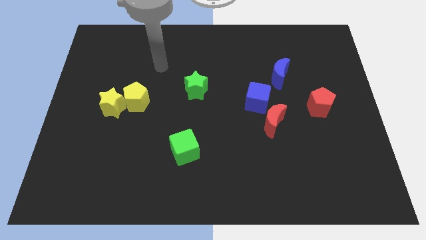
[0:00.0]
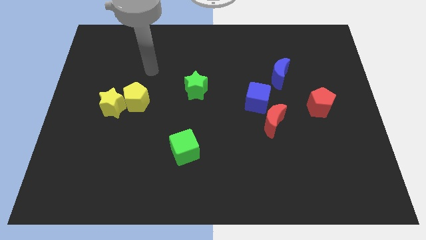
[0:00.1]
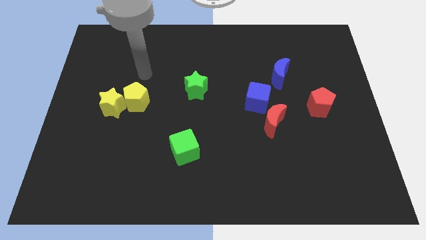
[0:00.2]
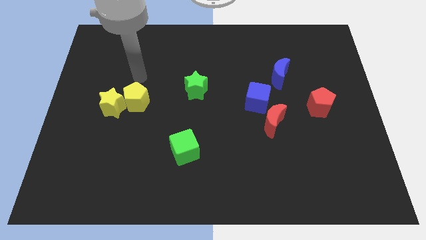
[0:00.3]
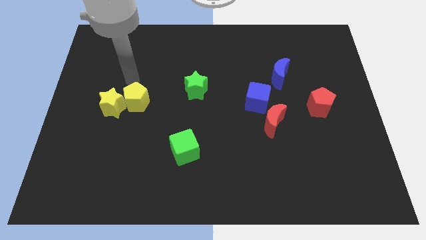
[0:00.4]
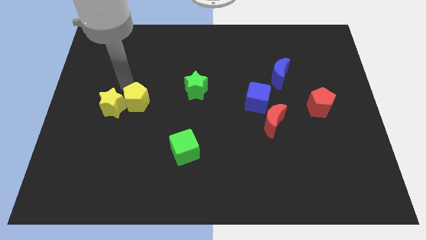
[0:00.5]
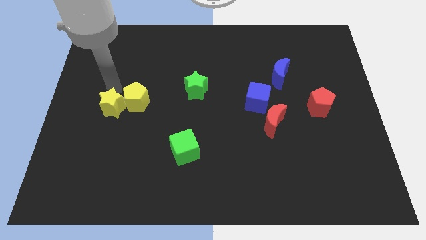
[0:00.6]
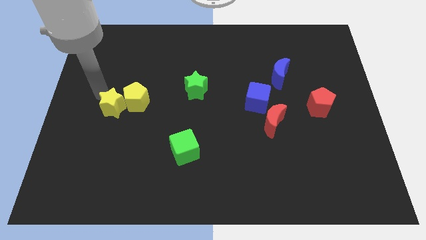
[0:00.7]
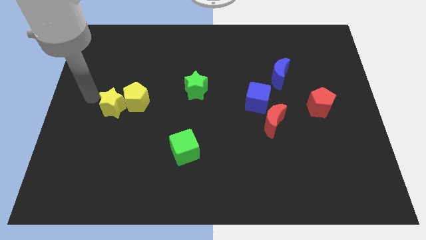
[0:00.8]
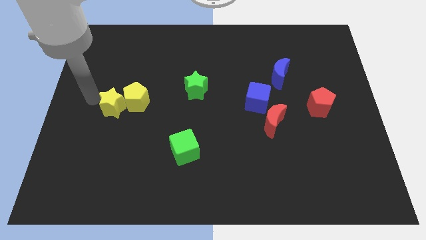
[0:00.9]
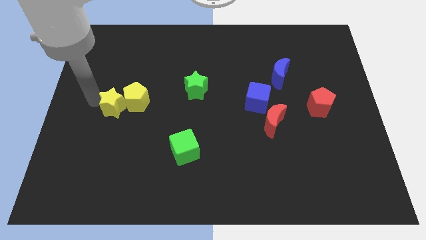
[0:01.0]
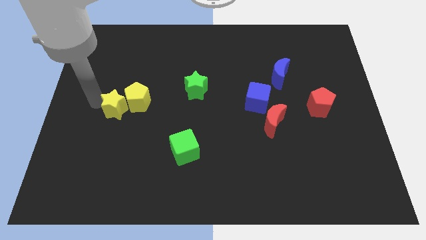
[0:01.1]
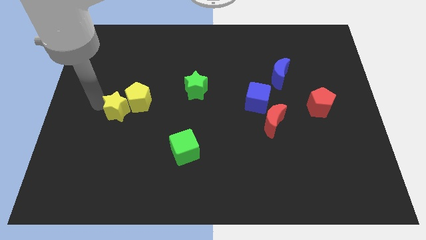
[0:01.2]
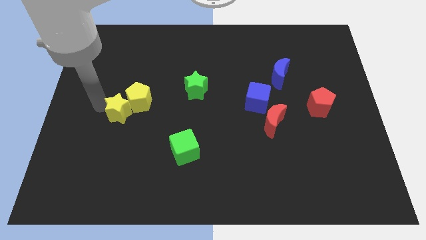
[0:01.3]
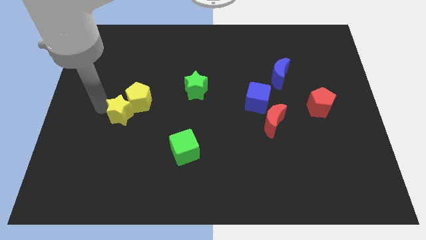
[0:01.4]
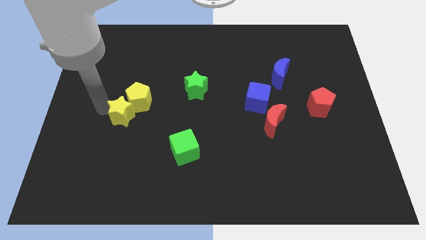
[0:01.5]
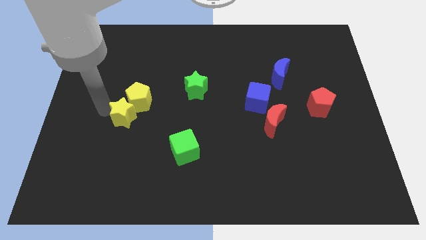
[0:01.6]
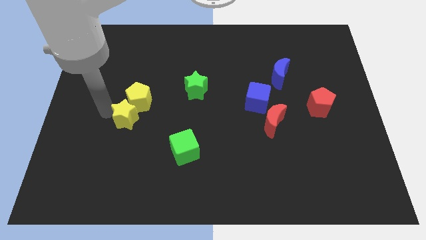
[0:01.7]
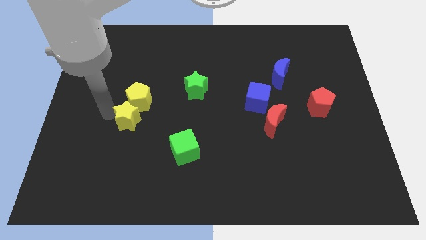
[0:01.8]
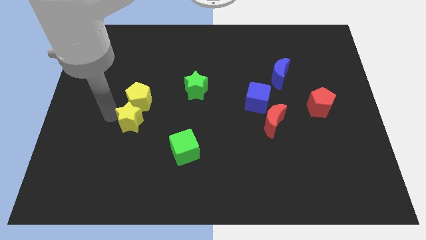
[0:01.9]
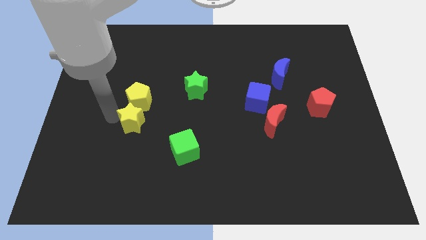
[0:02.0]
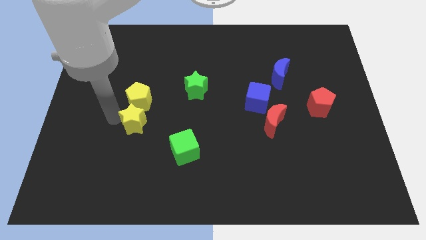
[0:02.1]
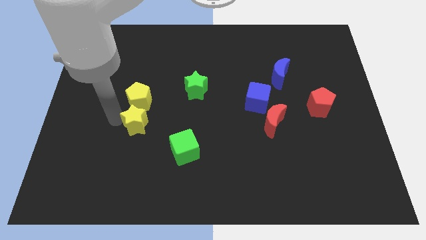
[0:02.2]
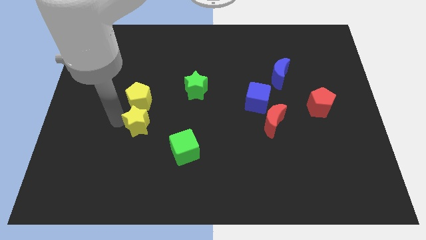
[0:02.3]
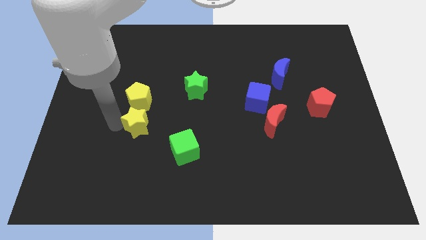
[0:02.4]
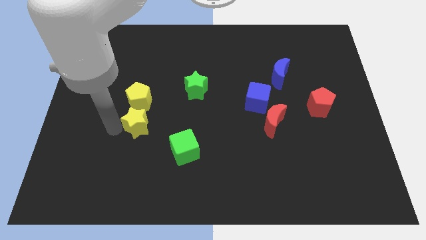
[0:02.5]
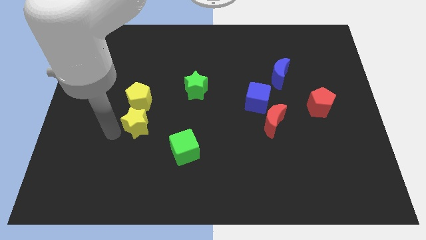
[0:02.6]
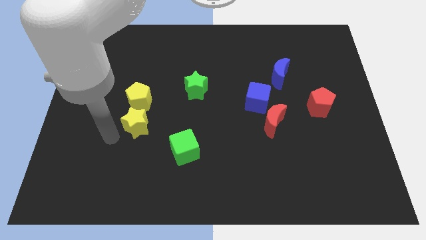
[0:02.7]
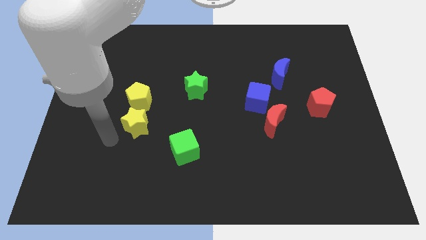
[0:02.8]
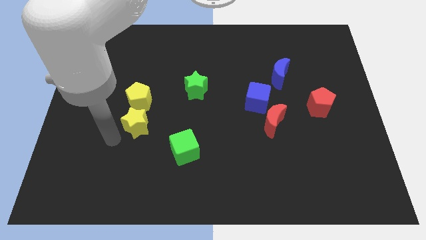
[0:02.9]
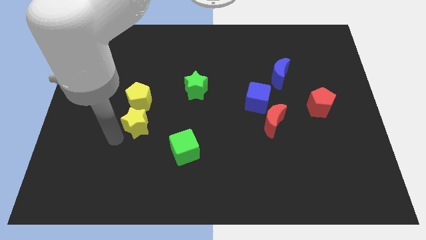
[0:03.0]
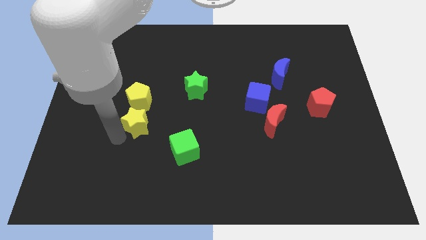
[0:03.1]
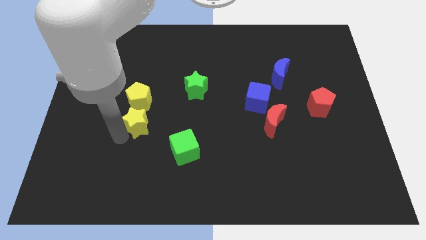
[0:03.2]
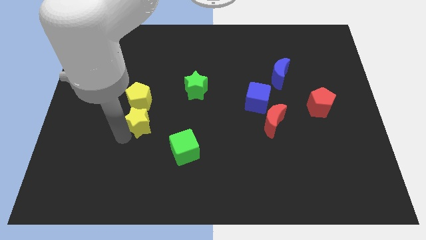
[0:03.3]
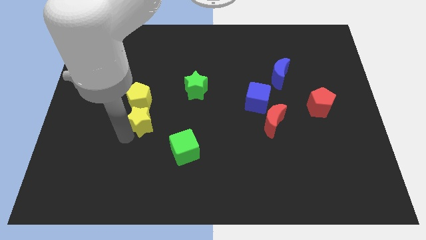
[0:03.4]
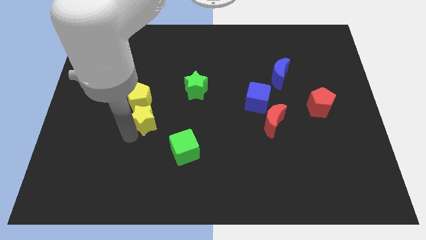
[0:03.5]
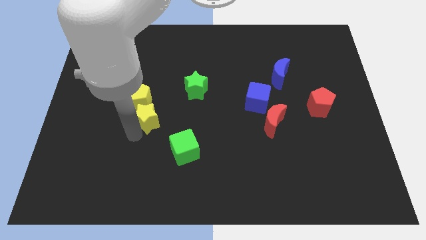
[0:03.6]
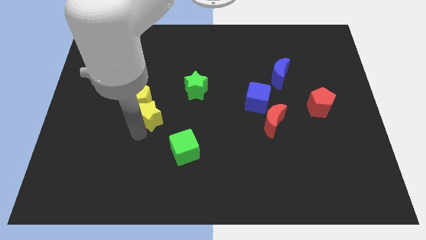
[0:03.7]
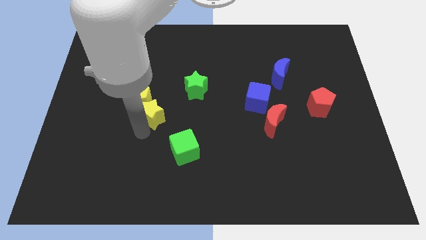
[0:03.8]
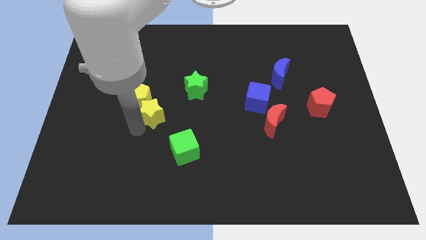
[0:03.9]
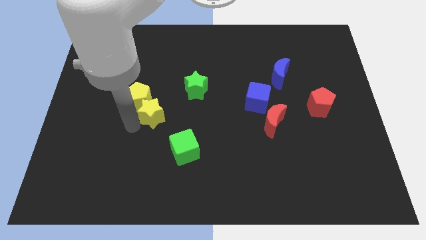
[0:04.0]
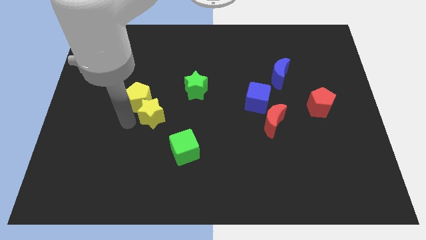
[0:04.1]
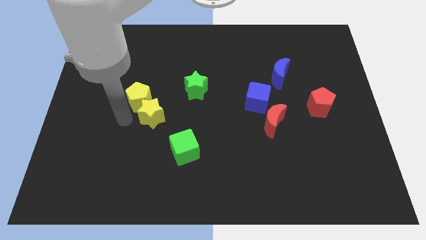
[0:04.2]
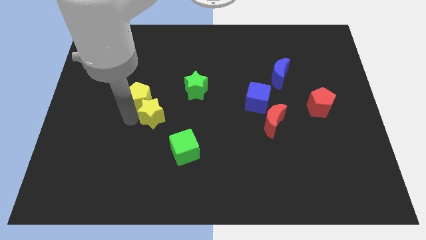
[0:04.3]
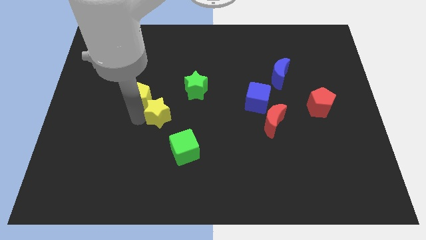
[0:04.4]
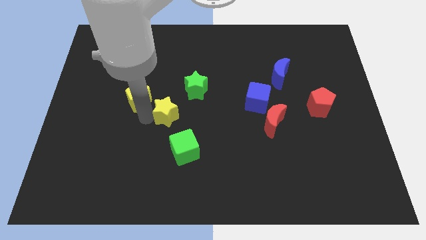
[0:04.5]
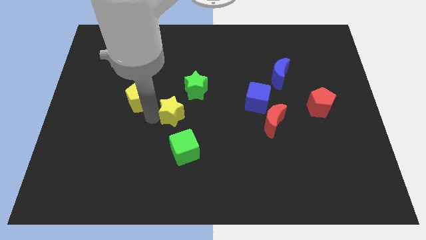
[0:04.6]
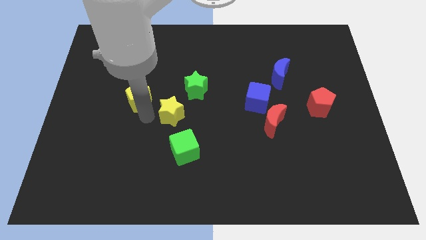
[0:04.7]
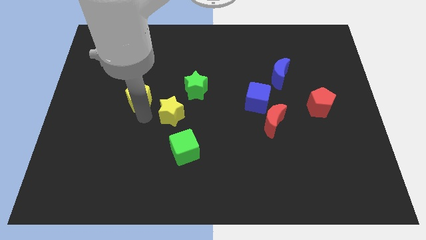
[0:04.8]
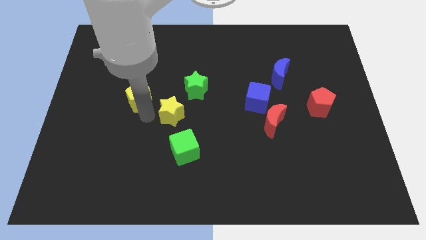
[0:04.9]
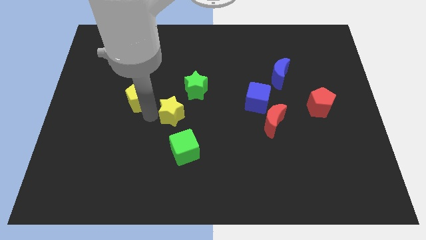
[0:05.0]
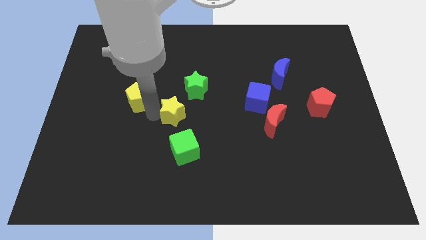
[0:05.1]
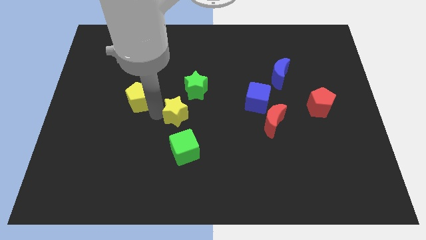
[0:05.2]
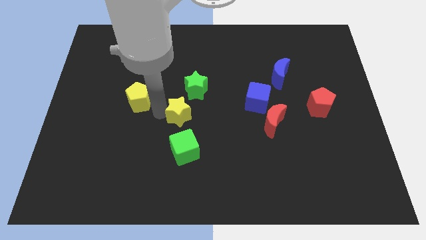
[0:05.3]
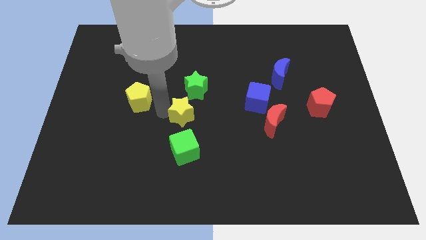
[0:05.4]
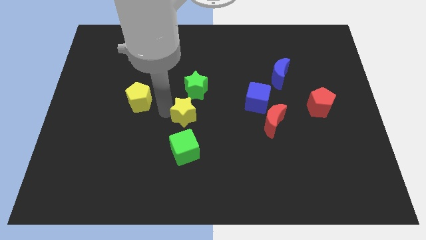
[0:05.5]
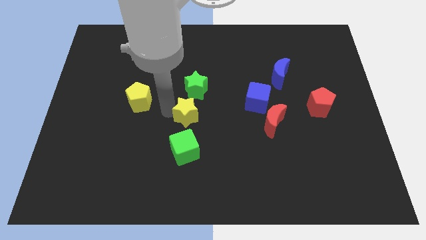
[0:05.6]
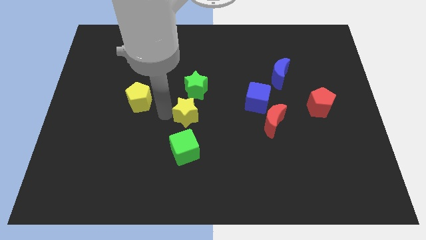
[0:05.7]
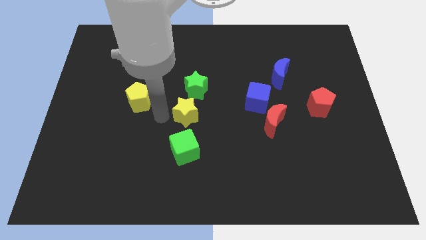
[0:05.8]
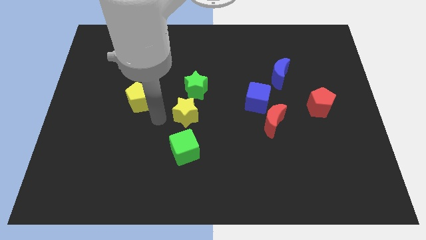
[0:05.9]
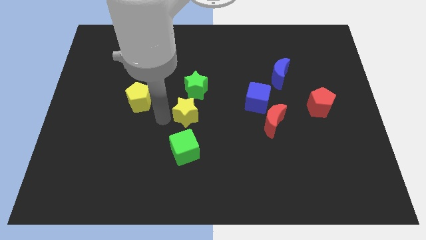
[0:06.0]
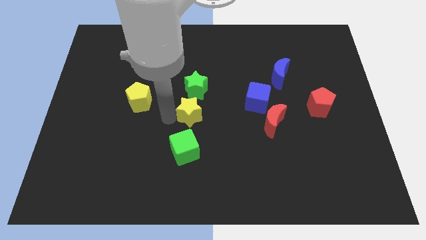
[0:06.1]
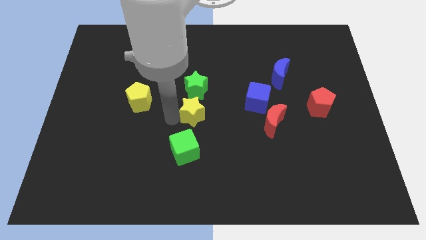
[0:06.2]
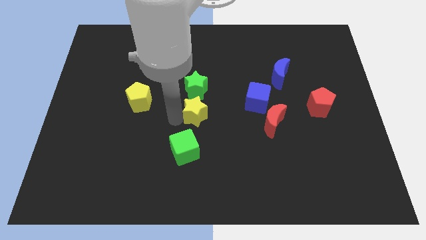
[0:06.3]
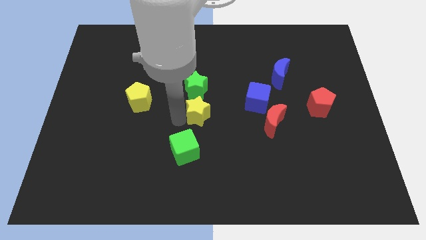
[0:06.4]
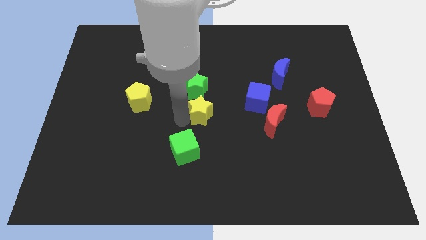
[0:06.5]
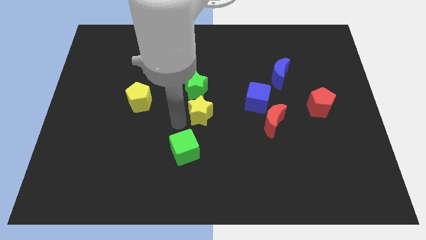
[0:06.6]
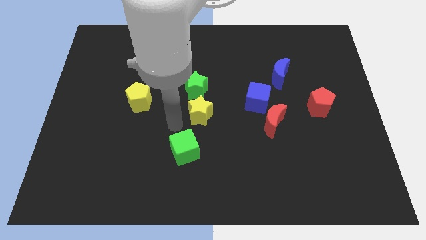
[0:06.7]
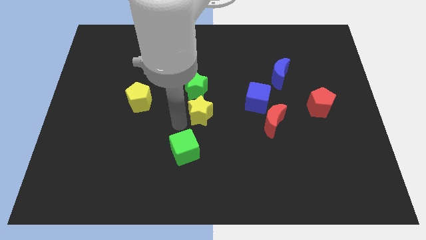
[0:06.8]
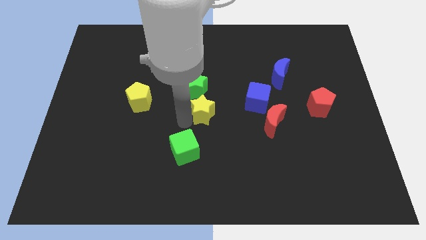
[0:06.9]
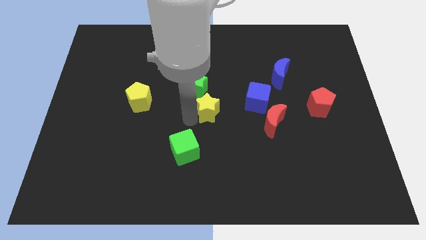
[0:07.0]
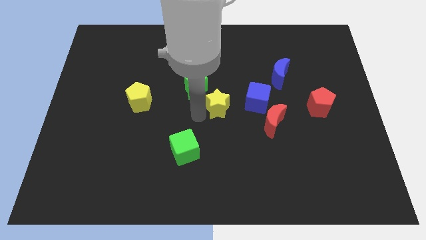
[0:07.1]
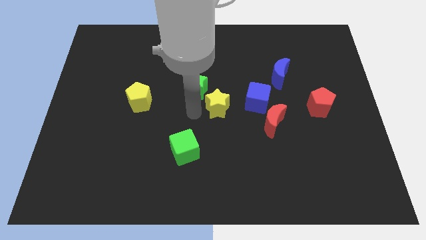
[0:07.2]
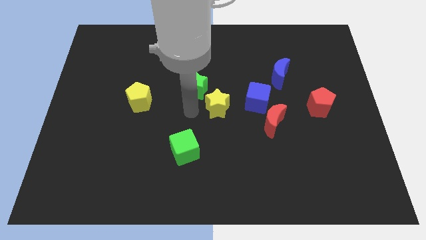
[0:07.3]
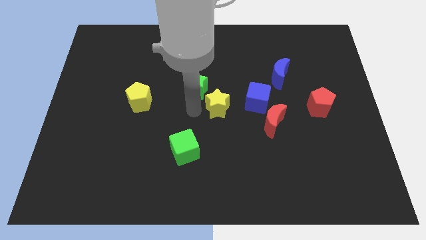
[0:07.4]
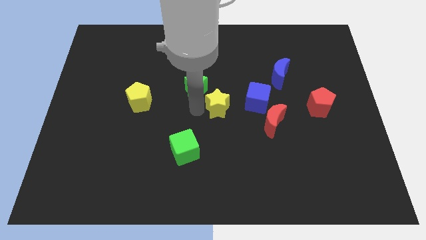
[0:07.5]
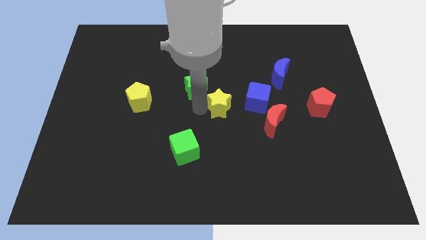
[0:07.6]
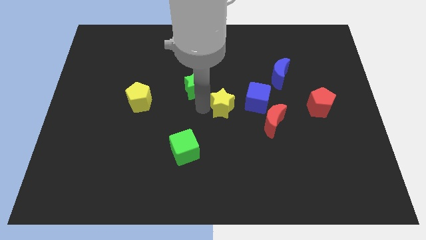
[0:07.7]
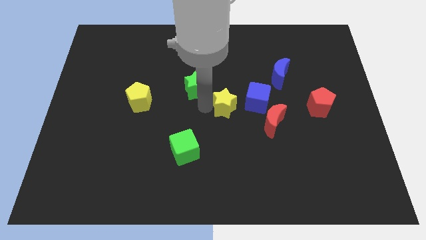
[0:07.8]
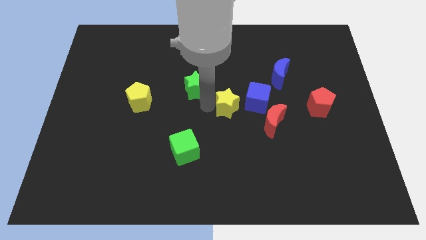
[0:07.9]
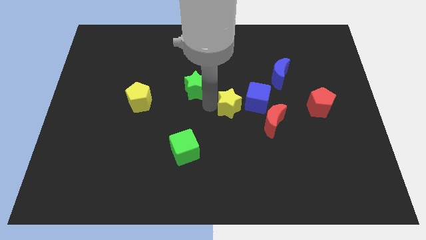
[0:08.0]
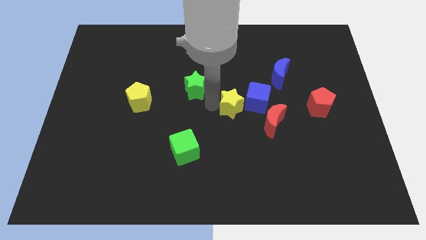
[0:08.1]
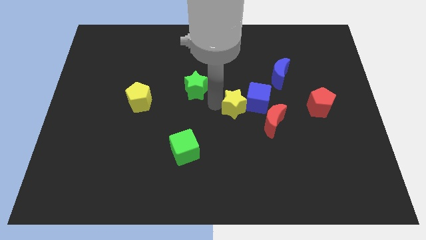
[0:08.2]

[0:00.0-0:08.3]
slide the yellow star towards the blue cube
